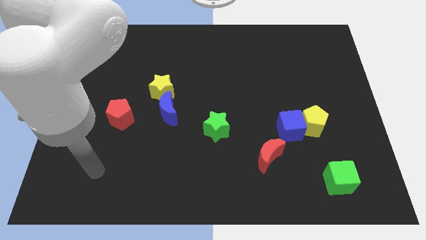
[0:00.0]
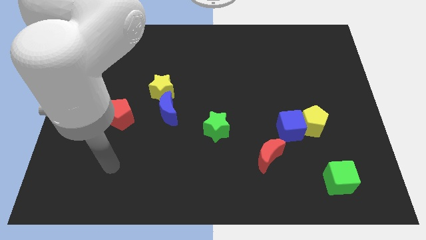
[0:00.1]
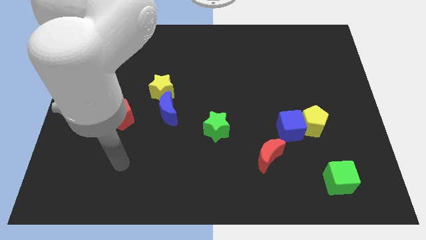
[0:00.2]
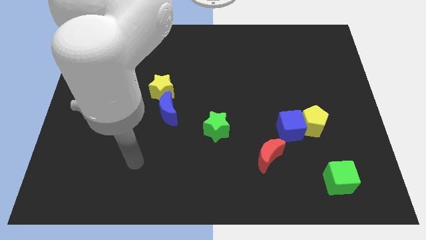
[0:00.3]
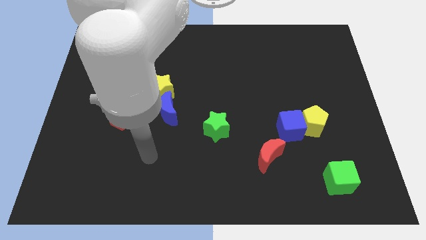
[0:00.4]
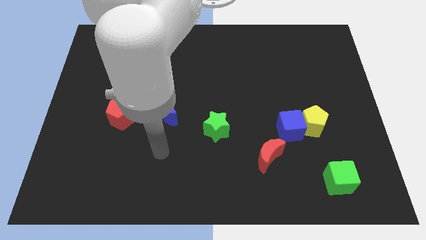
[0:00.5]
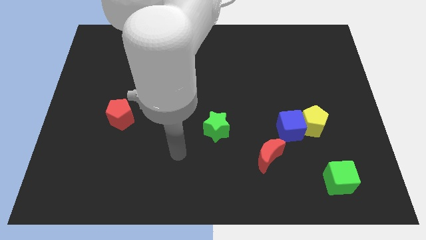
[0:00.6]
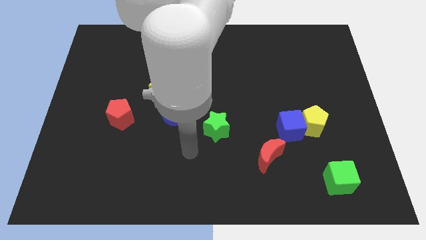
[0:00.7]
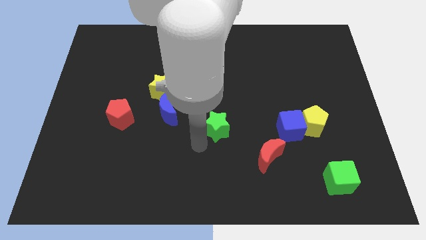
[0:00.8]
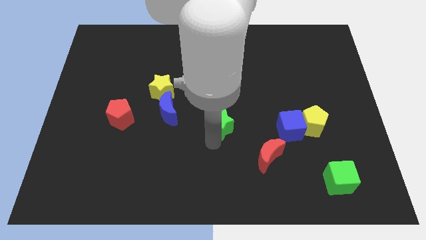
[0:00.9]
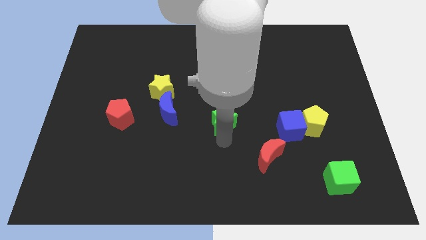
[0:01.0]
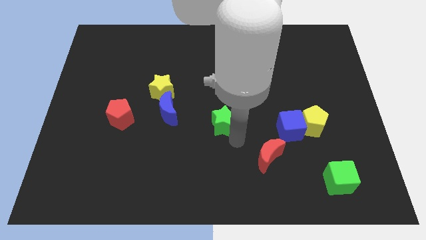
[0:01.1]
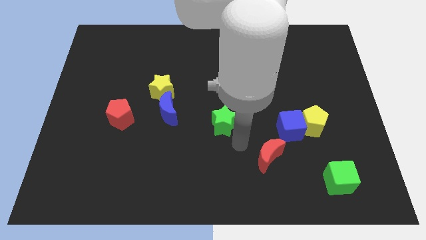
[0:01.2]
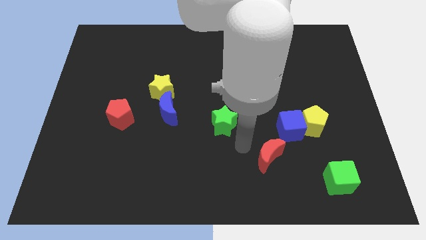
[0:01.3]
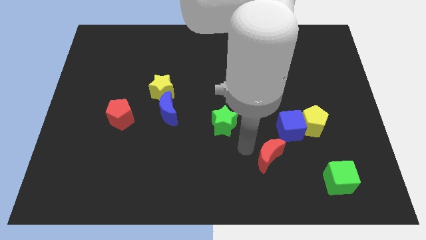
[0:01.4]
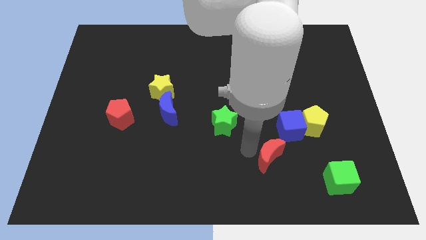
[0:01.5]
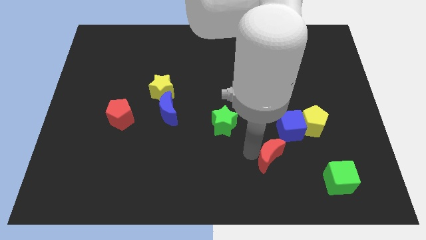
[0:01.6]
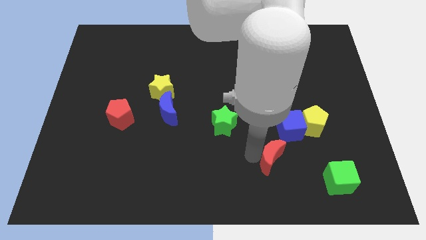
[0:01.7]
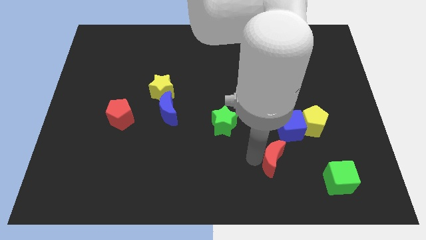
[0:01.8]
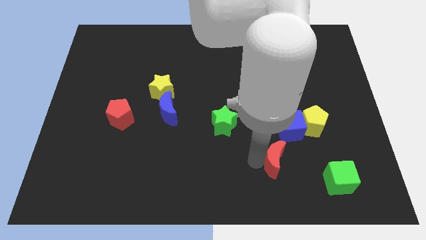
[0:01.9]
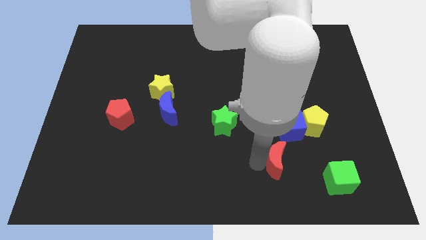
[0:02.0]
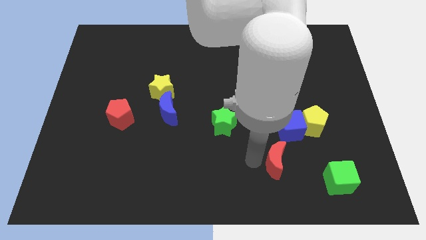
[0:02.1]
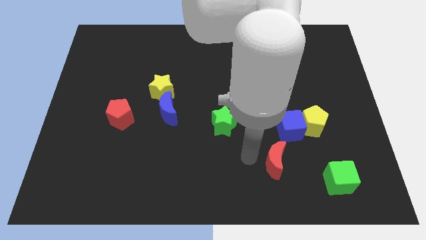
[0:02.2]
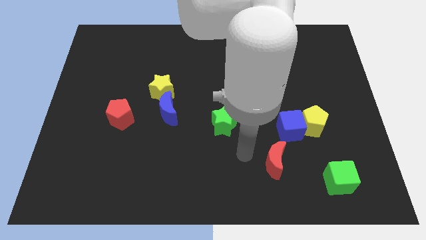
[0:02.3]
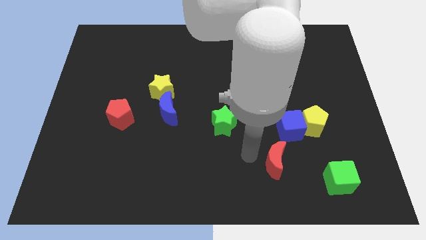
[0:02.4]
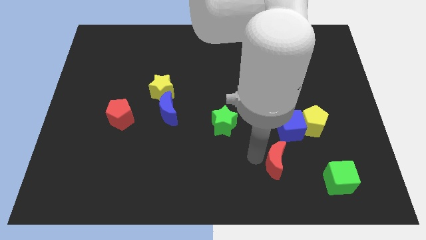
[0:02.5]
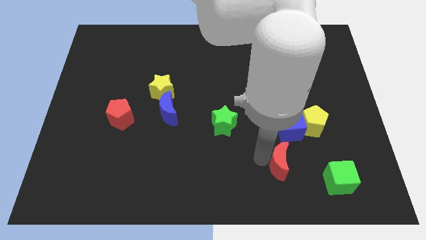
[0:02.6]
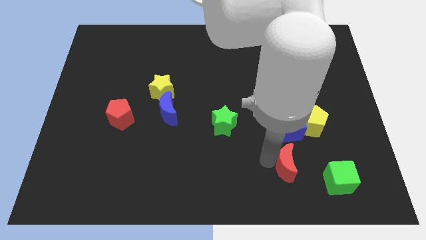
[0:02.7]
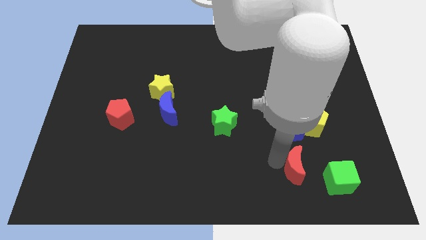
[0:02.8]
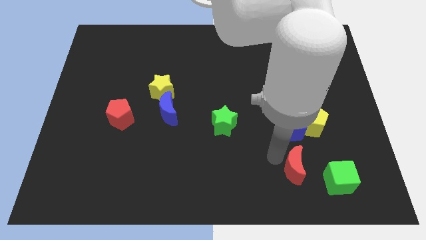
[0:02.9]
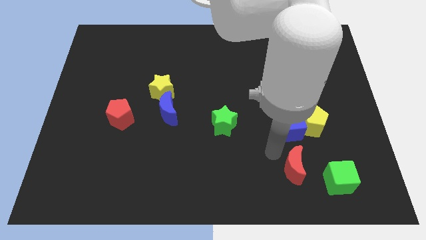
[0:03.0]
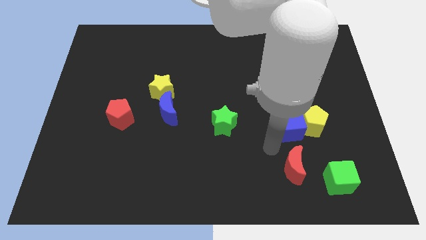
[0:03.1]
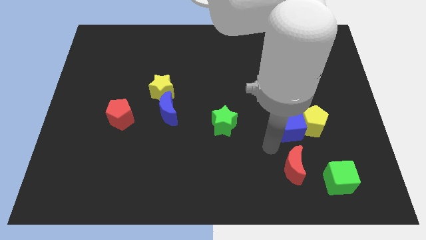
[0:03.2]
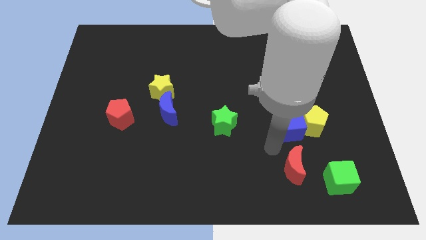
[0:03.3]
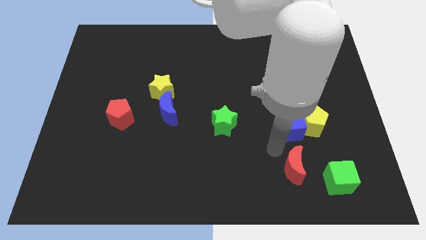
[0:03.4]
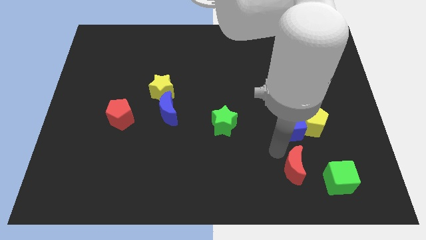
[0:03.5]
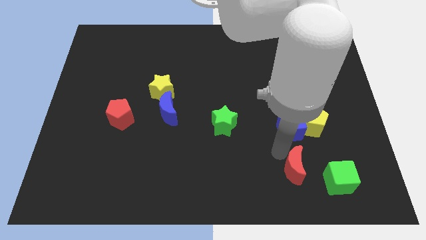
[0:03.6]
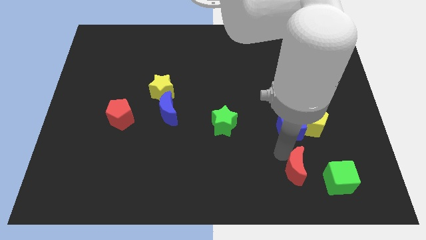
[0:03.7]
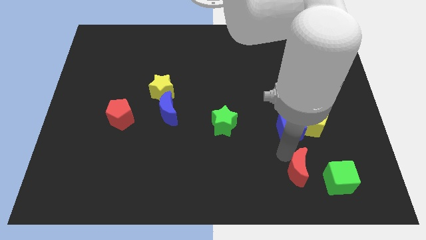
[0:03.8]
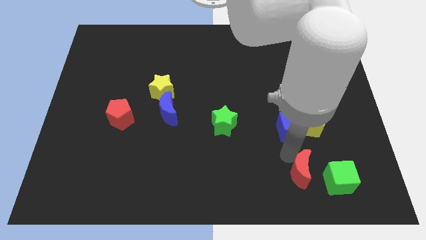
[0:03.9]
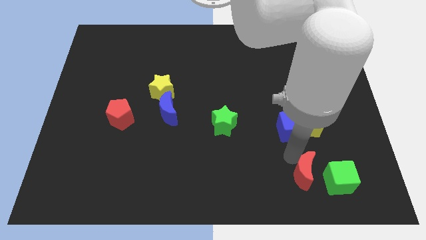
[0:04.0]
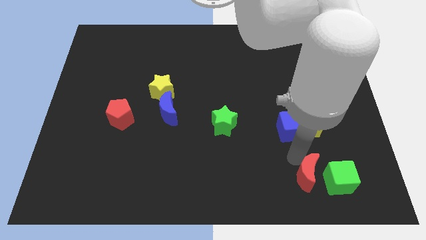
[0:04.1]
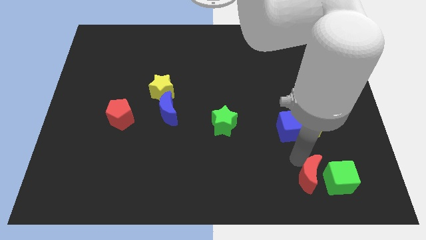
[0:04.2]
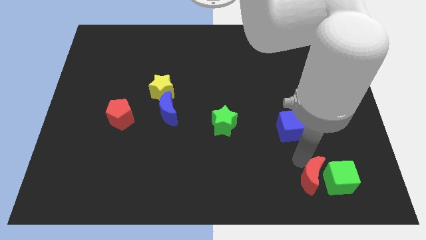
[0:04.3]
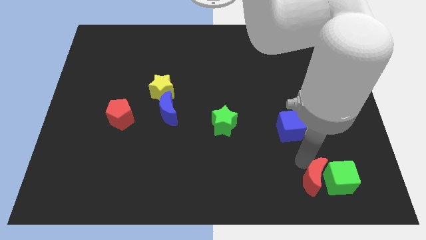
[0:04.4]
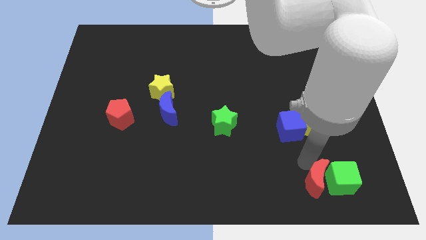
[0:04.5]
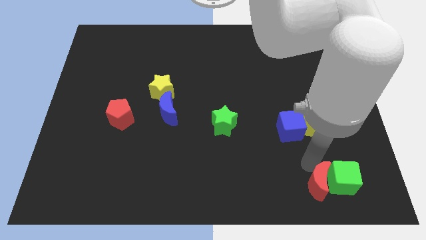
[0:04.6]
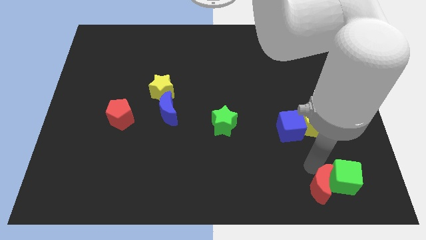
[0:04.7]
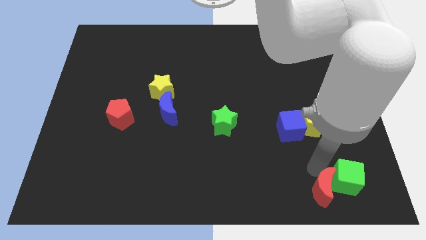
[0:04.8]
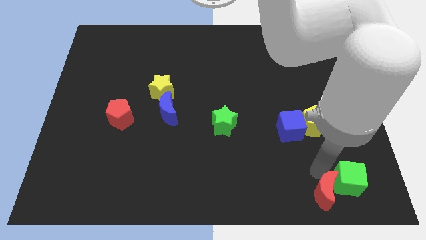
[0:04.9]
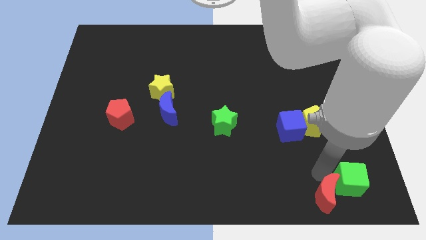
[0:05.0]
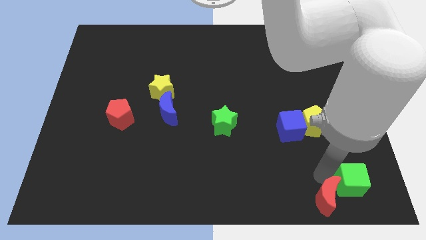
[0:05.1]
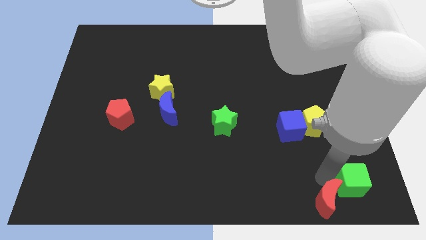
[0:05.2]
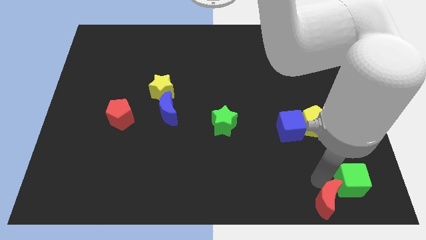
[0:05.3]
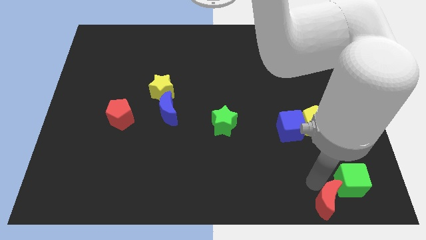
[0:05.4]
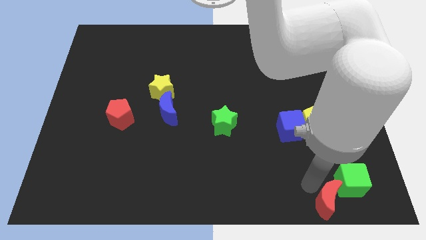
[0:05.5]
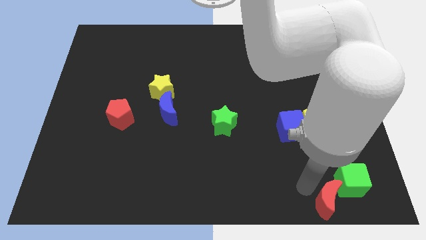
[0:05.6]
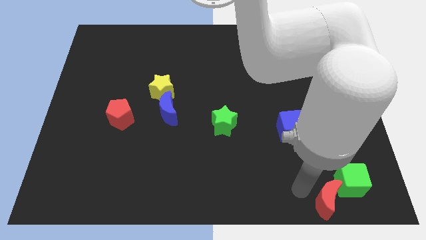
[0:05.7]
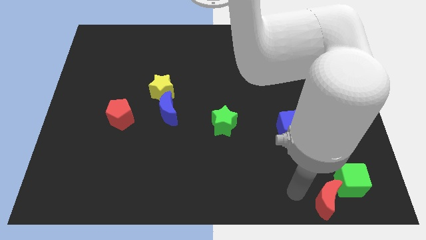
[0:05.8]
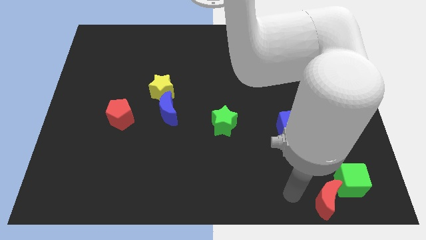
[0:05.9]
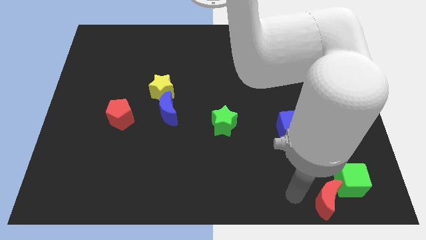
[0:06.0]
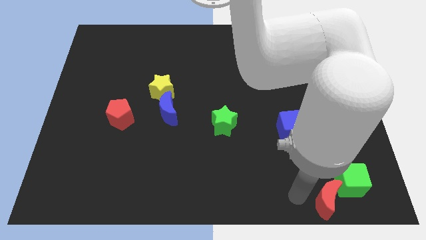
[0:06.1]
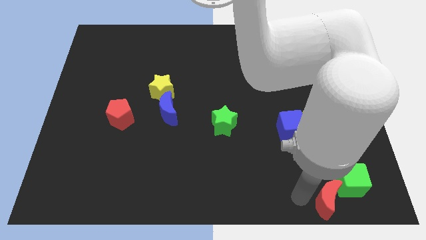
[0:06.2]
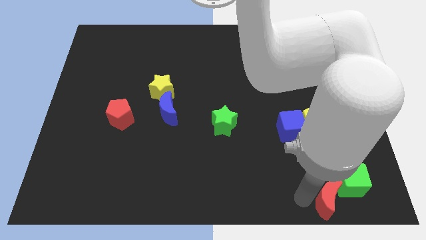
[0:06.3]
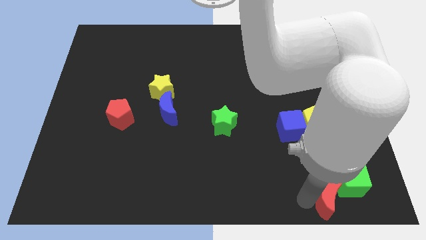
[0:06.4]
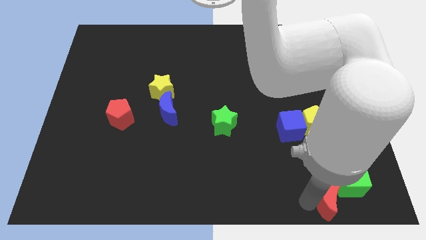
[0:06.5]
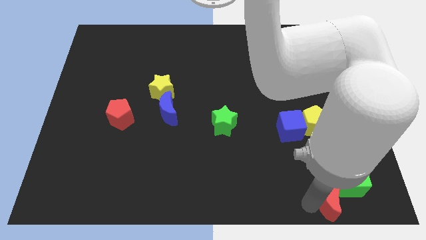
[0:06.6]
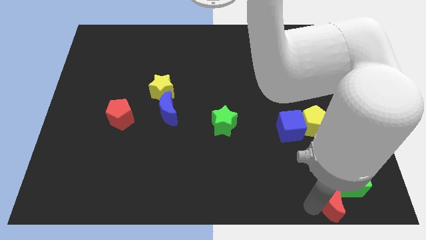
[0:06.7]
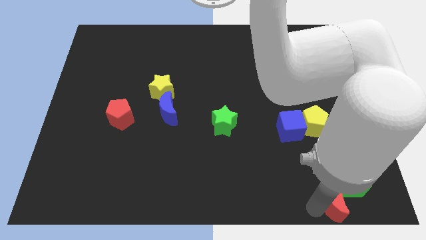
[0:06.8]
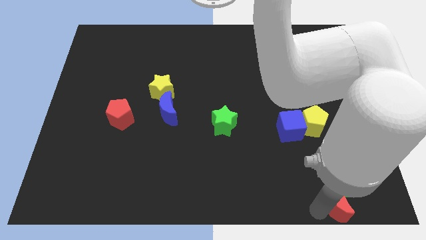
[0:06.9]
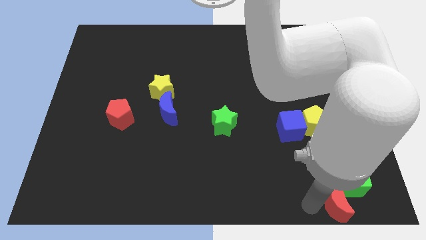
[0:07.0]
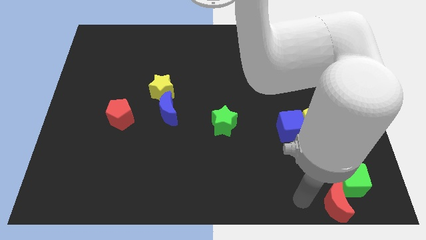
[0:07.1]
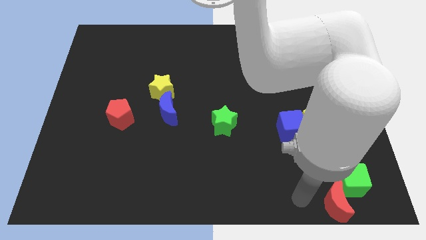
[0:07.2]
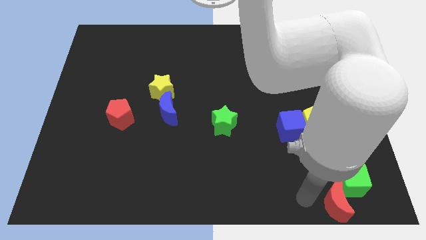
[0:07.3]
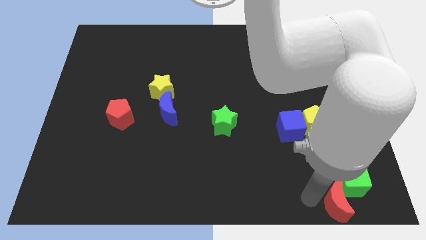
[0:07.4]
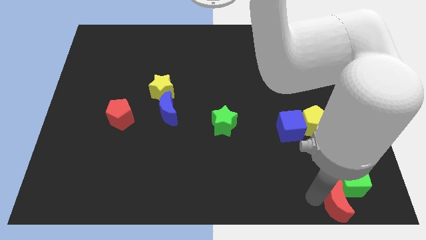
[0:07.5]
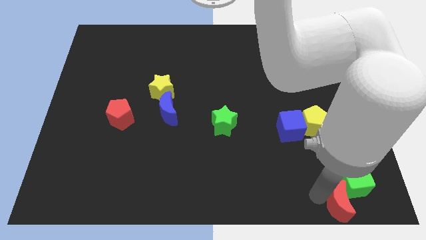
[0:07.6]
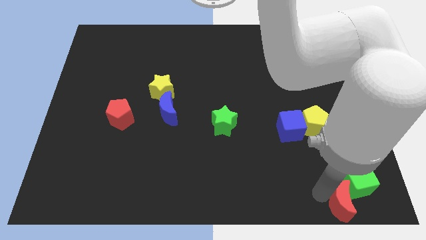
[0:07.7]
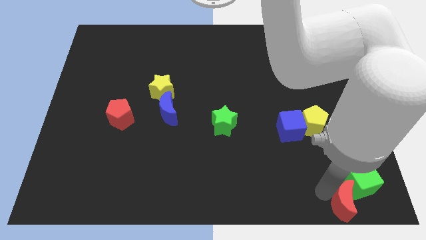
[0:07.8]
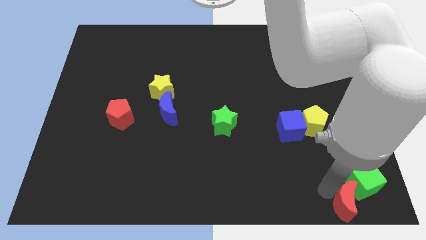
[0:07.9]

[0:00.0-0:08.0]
push the red moon to the bottom right corner
